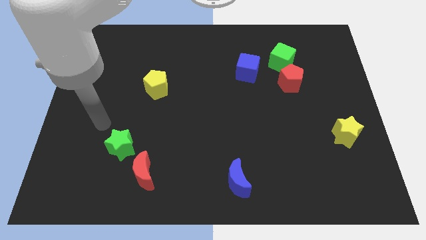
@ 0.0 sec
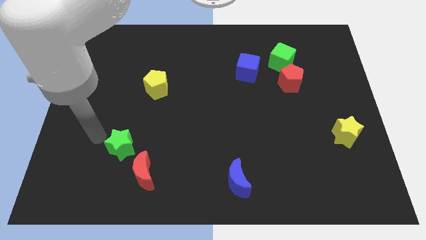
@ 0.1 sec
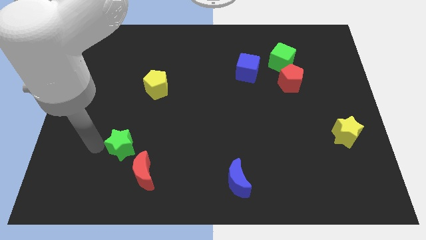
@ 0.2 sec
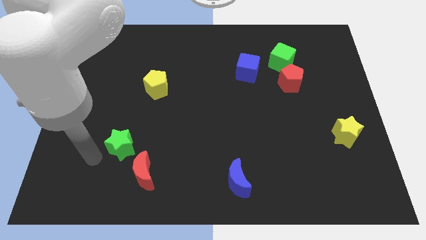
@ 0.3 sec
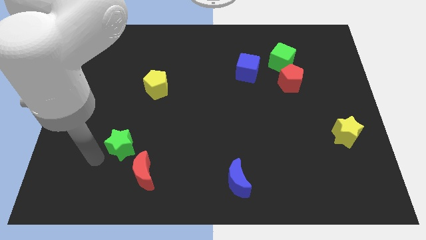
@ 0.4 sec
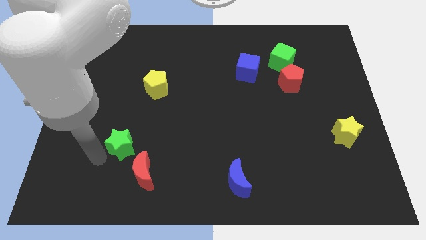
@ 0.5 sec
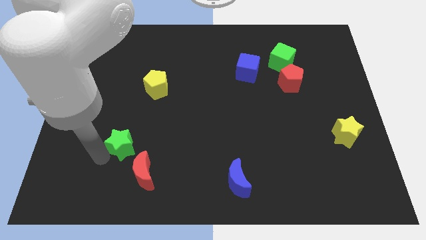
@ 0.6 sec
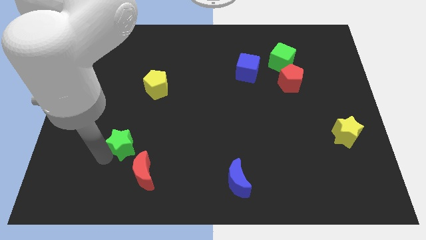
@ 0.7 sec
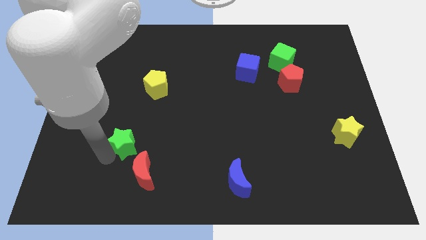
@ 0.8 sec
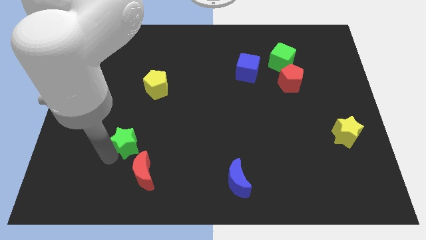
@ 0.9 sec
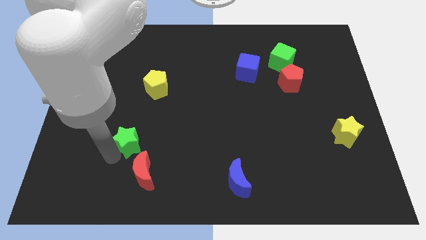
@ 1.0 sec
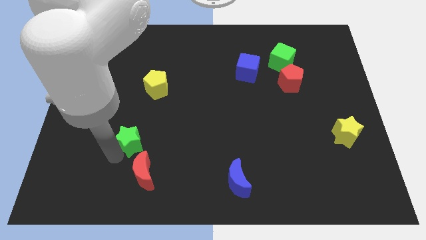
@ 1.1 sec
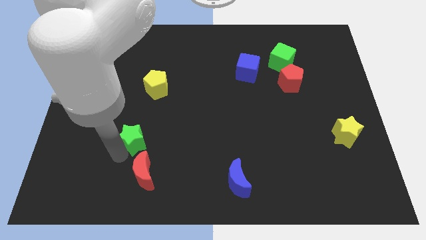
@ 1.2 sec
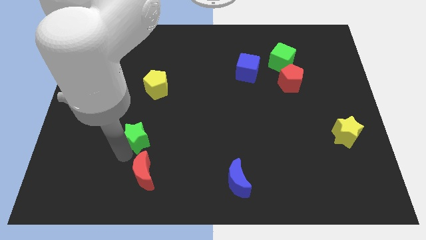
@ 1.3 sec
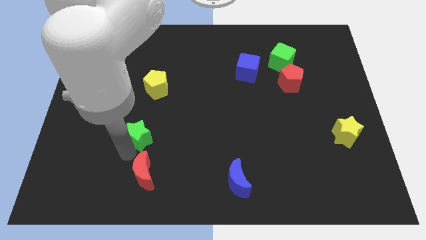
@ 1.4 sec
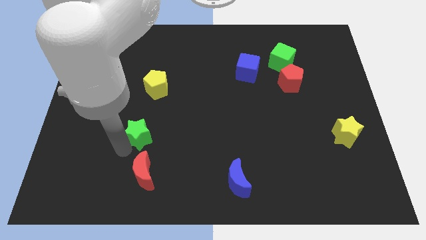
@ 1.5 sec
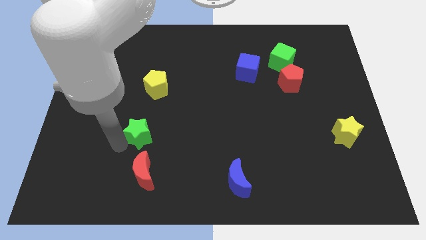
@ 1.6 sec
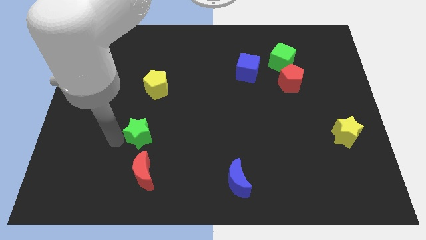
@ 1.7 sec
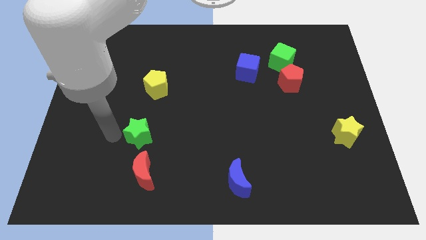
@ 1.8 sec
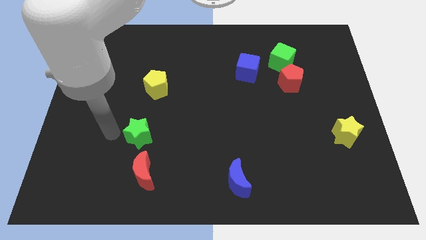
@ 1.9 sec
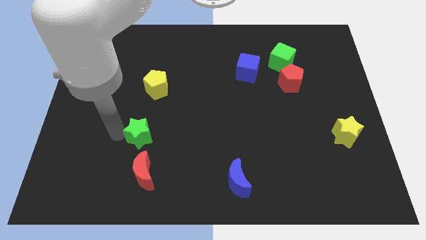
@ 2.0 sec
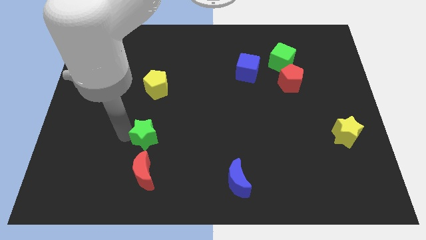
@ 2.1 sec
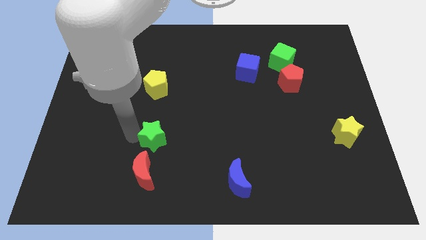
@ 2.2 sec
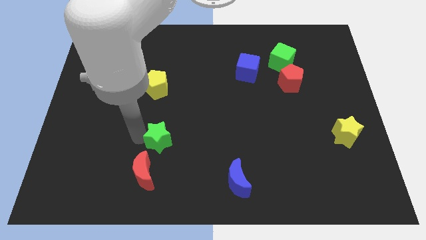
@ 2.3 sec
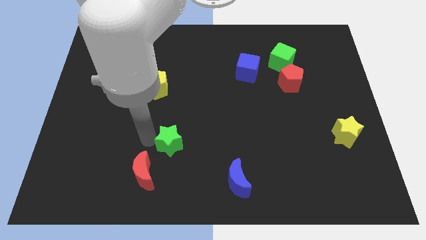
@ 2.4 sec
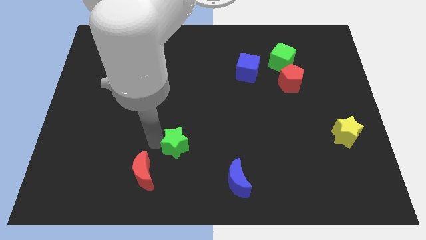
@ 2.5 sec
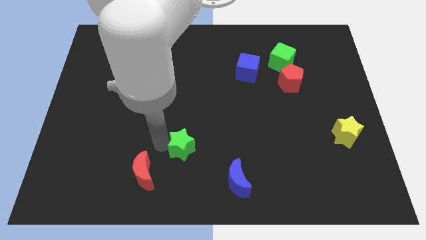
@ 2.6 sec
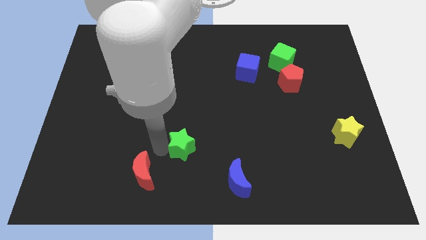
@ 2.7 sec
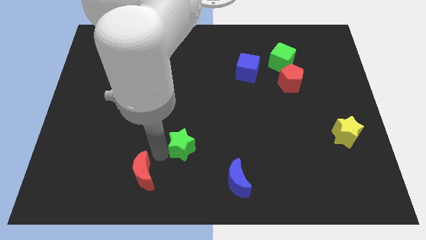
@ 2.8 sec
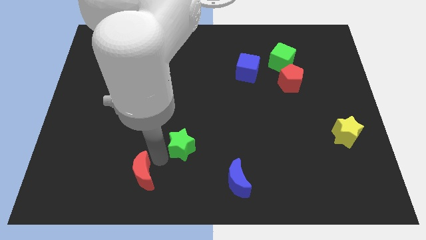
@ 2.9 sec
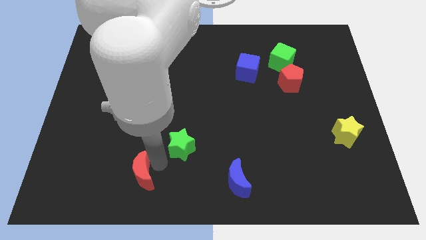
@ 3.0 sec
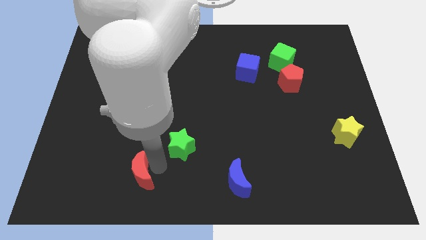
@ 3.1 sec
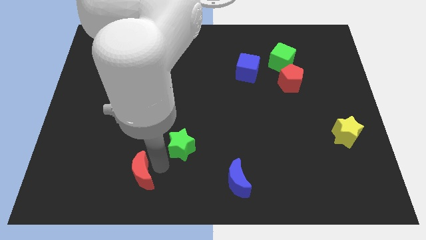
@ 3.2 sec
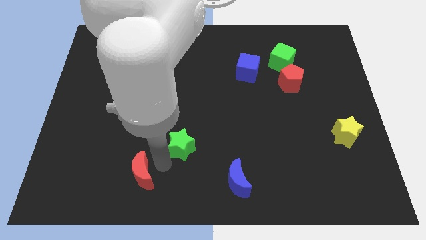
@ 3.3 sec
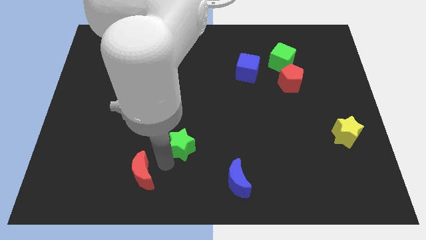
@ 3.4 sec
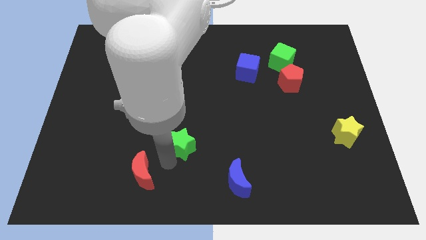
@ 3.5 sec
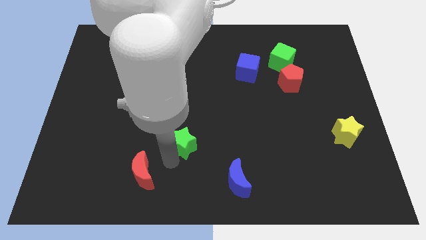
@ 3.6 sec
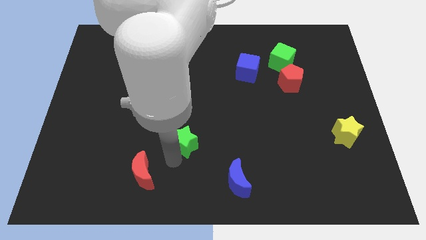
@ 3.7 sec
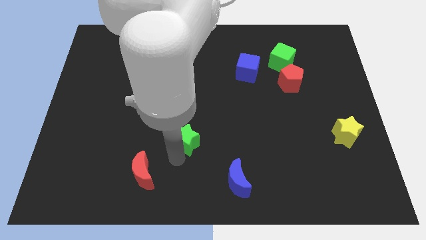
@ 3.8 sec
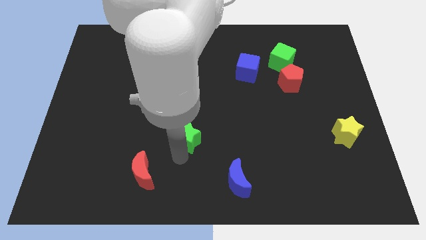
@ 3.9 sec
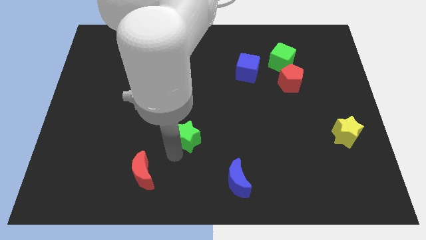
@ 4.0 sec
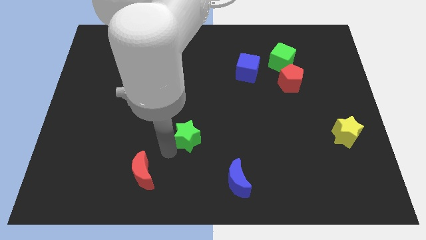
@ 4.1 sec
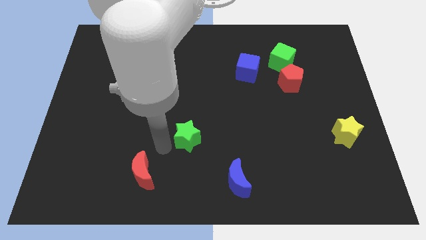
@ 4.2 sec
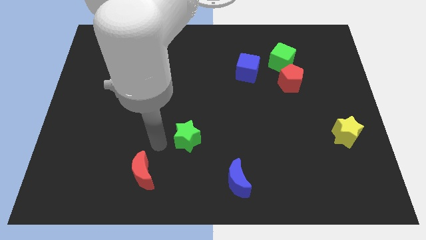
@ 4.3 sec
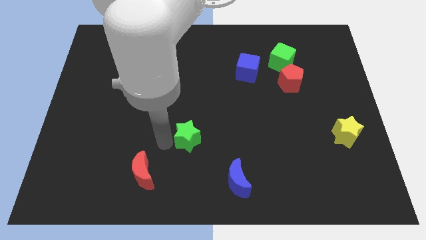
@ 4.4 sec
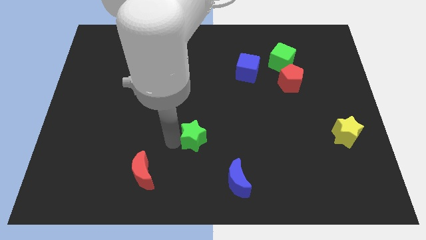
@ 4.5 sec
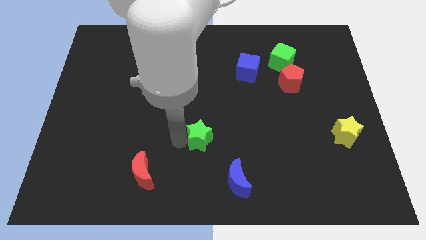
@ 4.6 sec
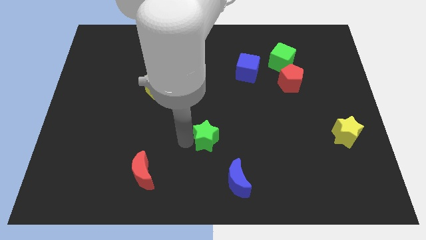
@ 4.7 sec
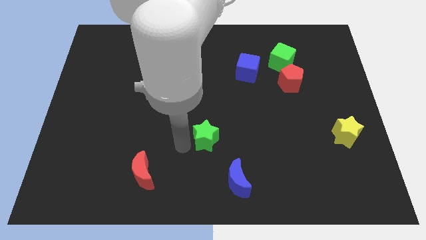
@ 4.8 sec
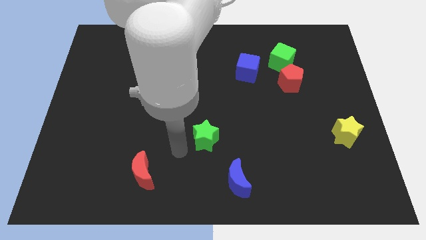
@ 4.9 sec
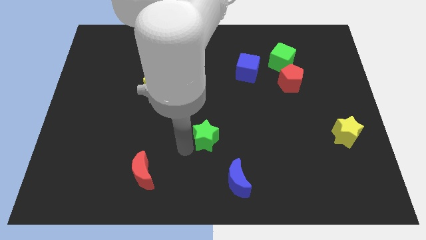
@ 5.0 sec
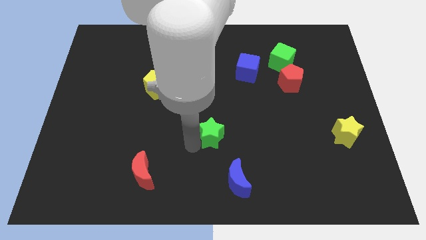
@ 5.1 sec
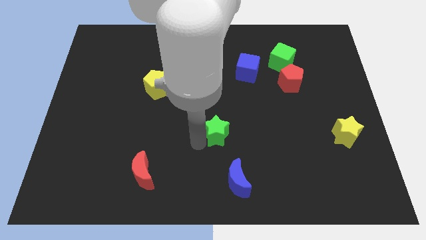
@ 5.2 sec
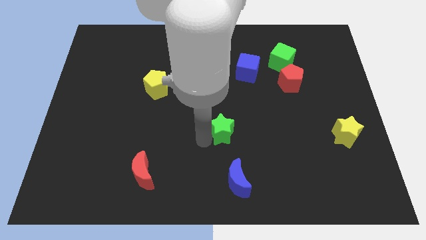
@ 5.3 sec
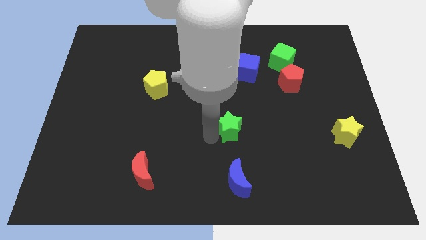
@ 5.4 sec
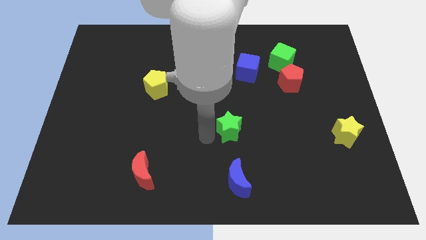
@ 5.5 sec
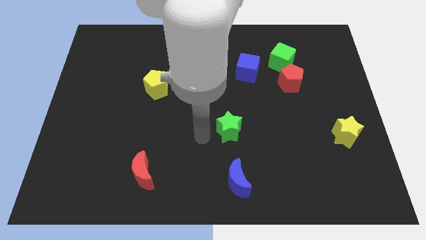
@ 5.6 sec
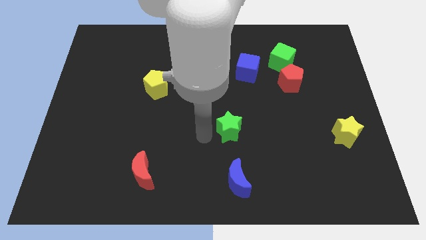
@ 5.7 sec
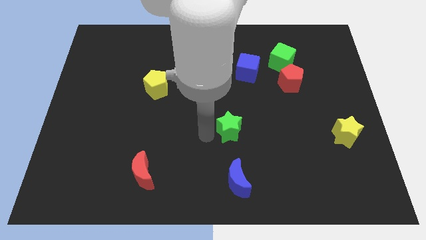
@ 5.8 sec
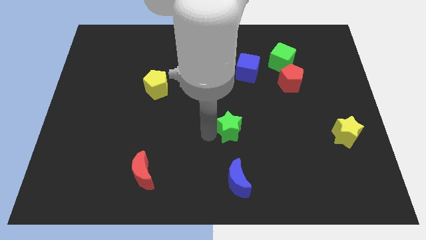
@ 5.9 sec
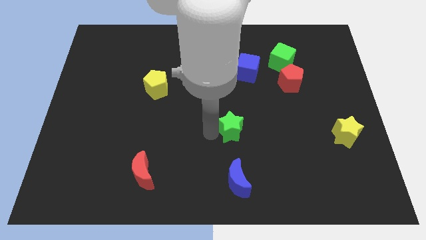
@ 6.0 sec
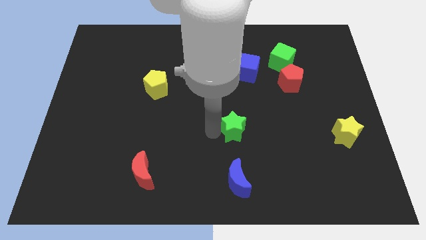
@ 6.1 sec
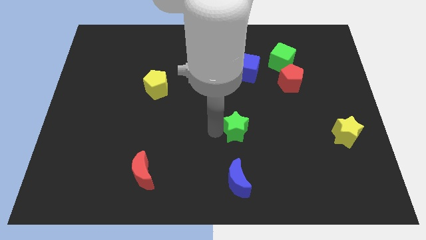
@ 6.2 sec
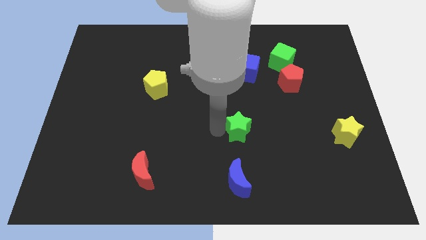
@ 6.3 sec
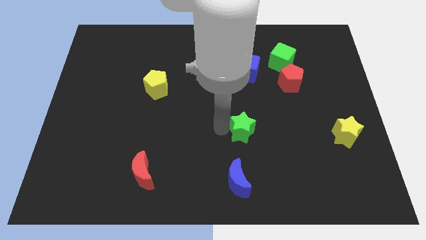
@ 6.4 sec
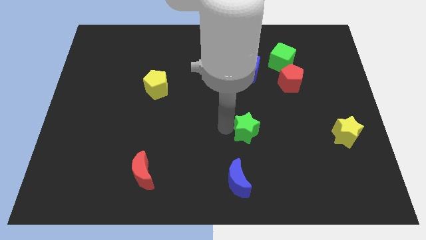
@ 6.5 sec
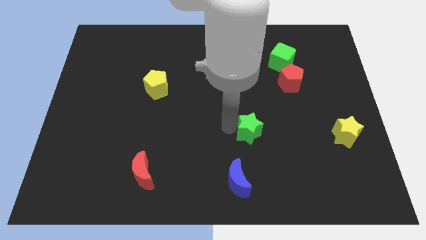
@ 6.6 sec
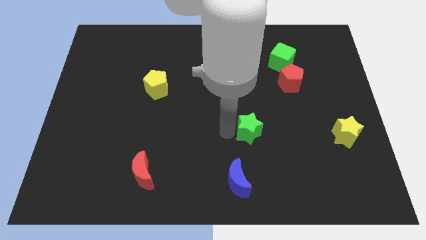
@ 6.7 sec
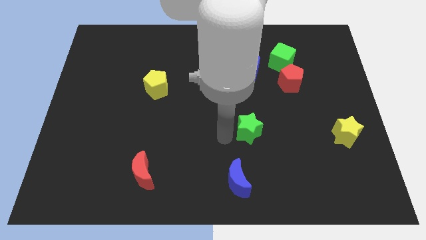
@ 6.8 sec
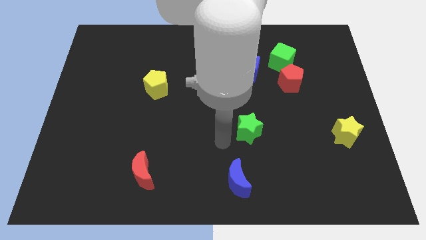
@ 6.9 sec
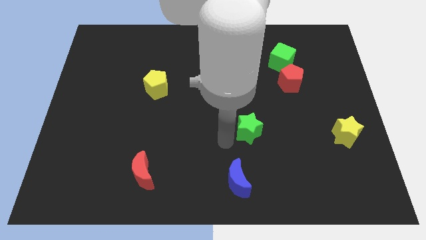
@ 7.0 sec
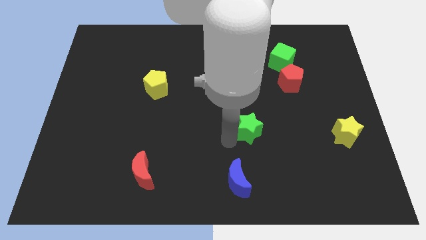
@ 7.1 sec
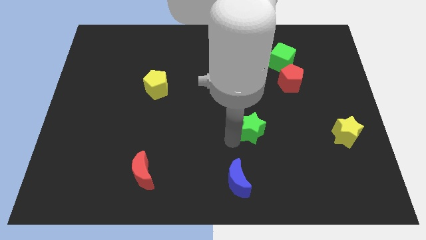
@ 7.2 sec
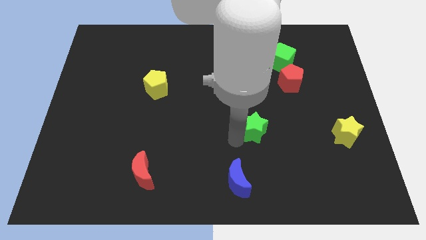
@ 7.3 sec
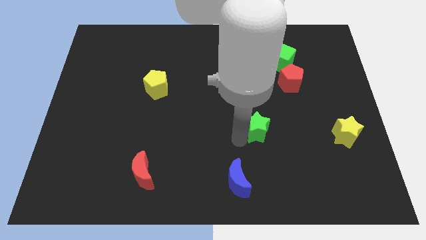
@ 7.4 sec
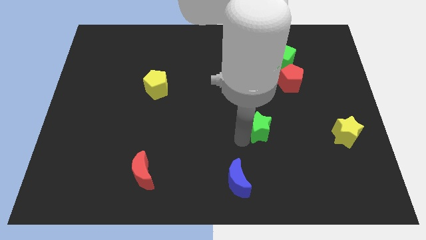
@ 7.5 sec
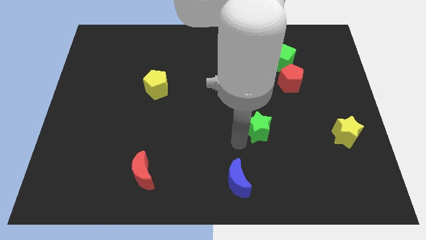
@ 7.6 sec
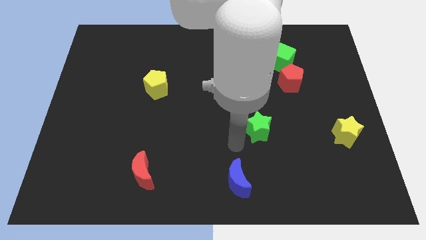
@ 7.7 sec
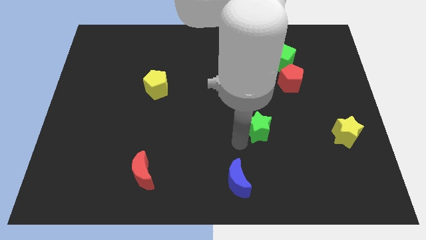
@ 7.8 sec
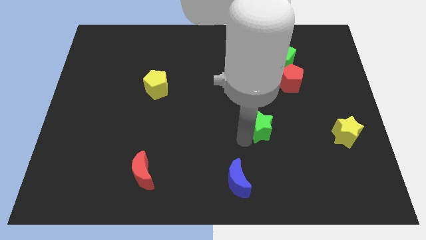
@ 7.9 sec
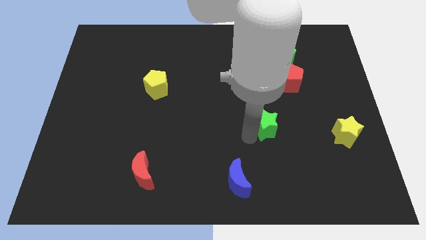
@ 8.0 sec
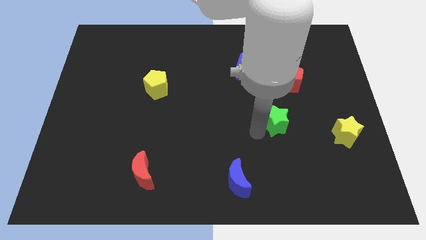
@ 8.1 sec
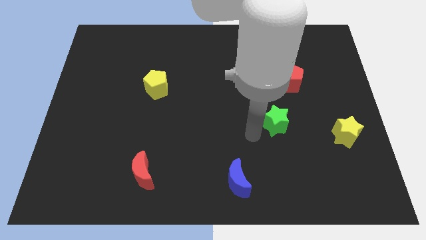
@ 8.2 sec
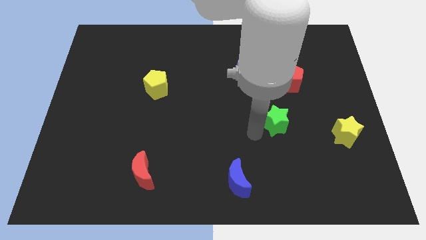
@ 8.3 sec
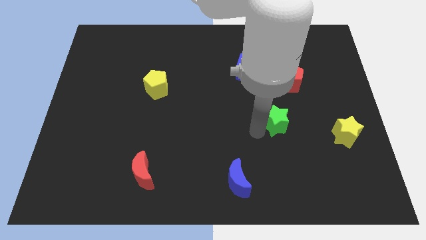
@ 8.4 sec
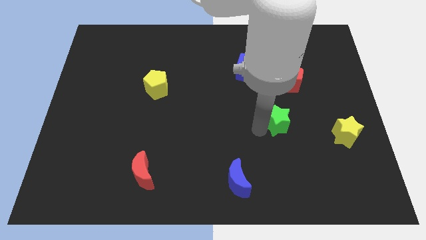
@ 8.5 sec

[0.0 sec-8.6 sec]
slide the green star to the bottom of the red pentagon
